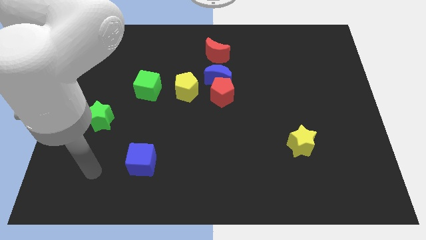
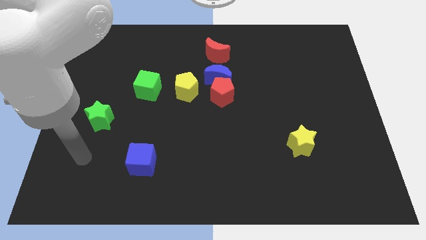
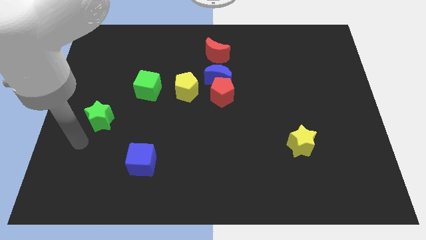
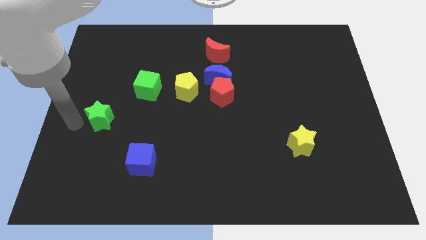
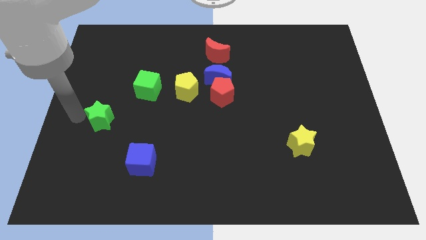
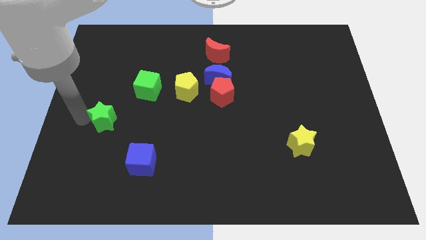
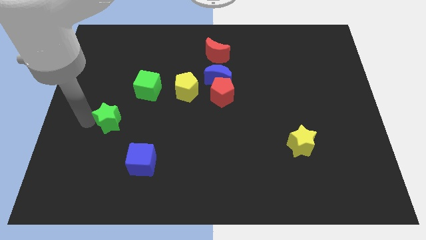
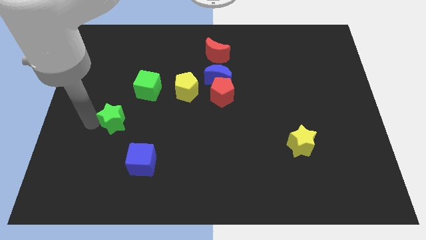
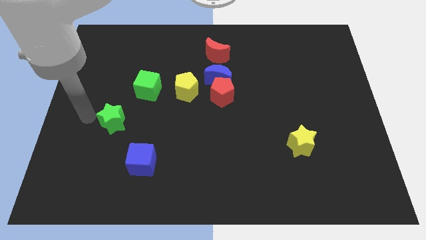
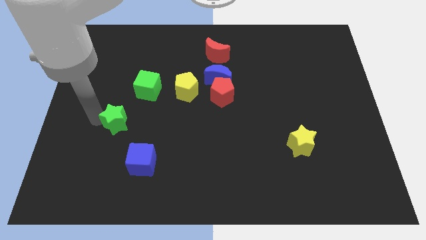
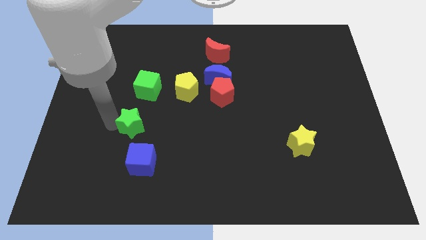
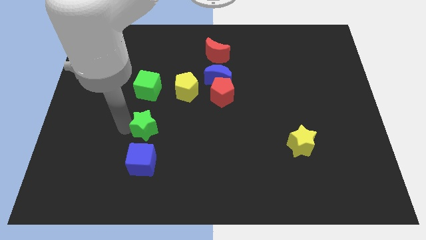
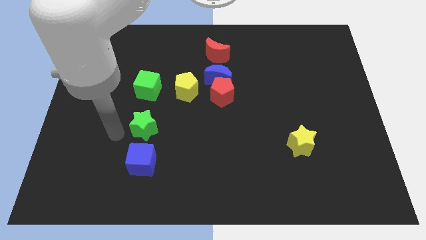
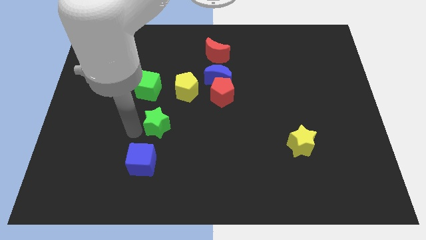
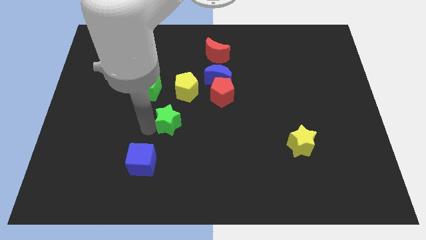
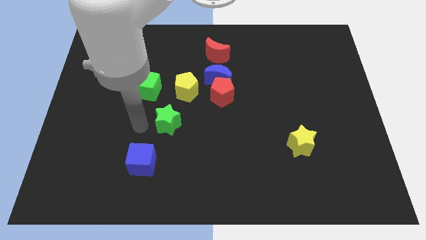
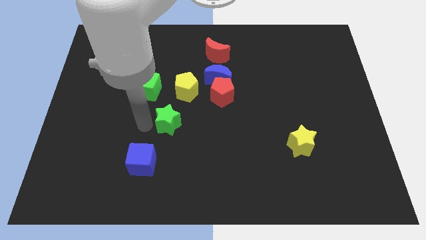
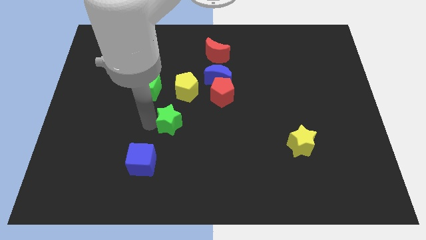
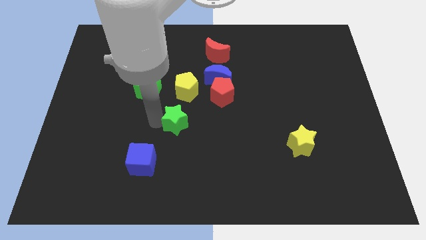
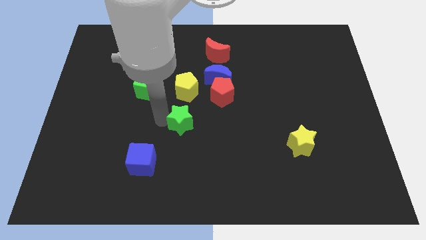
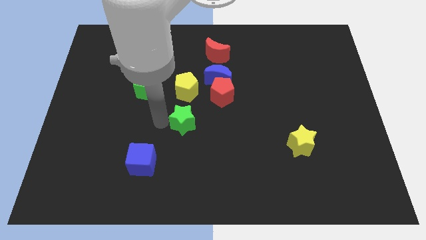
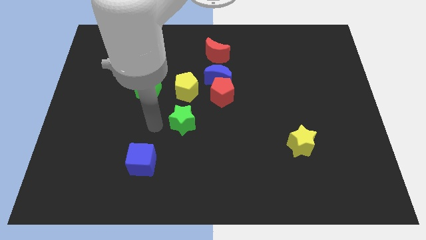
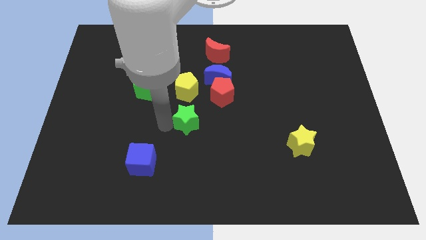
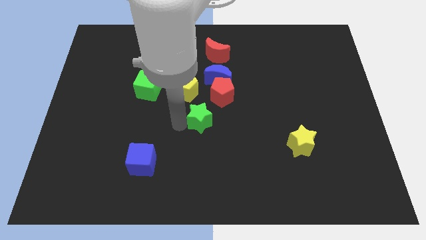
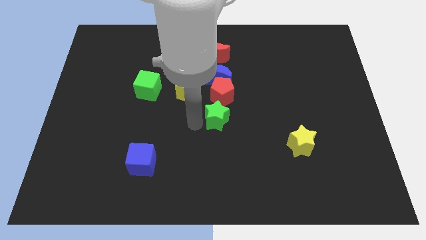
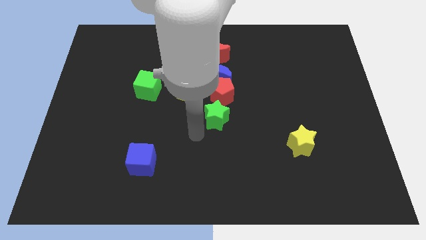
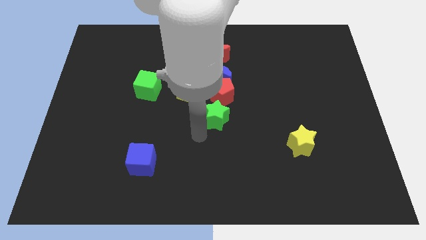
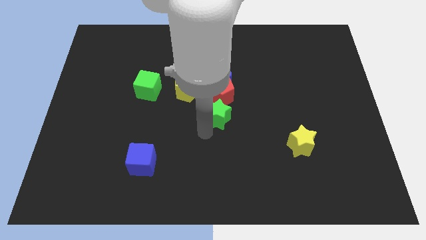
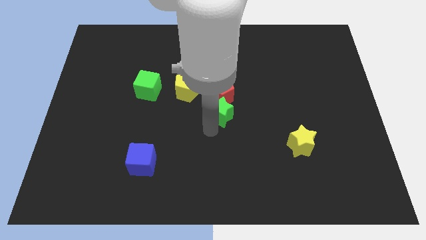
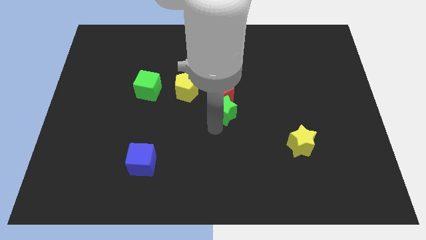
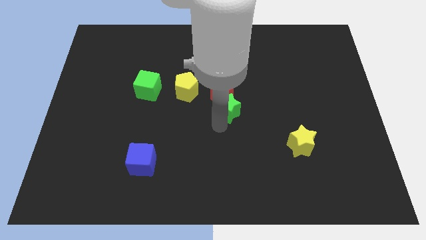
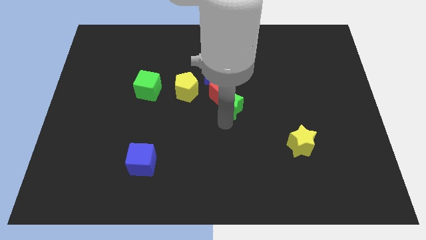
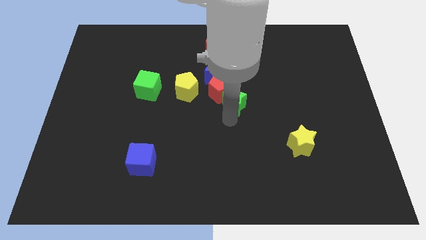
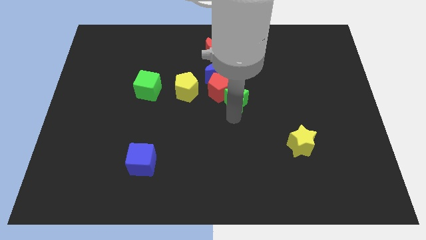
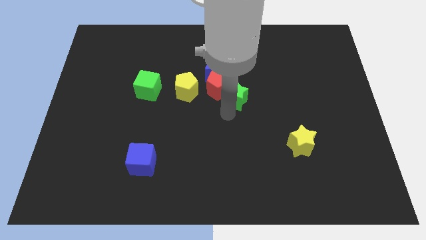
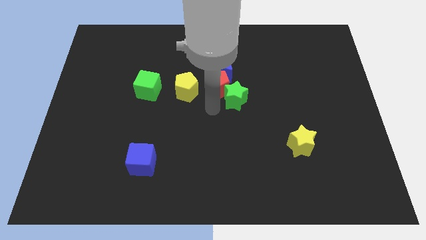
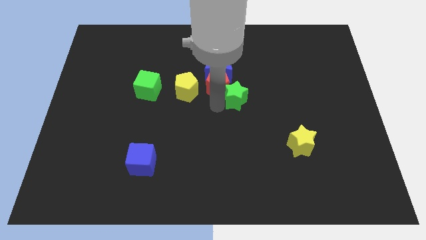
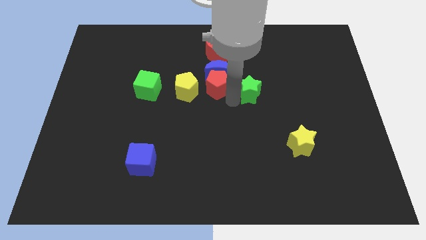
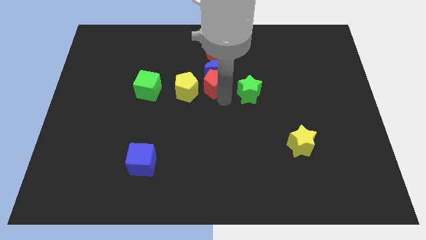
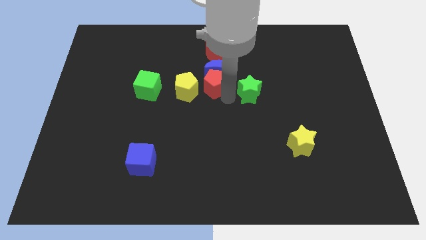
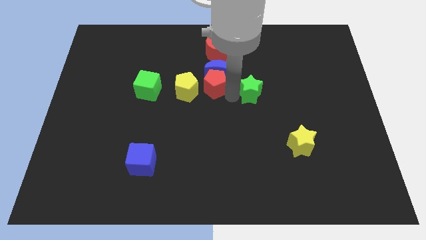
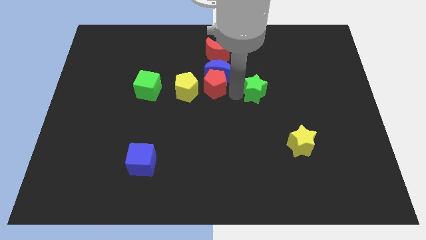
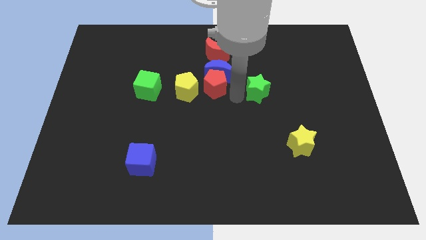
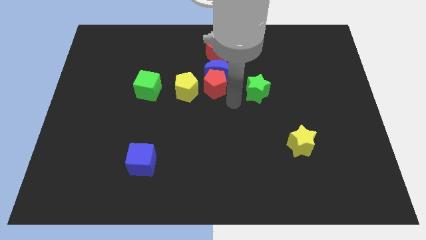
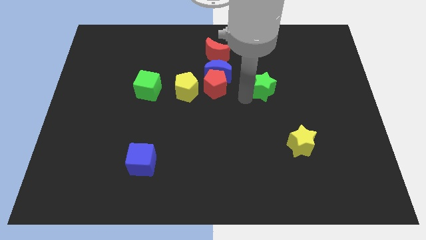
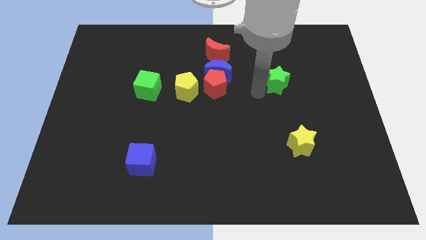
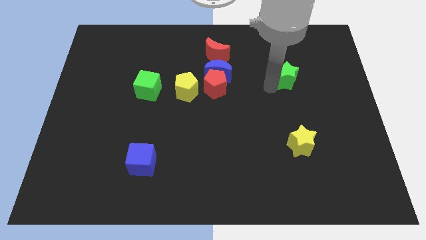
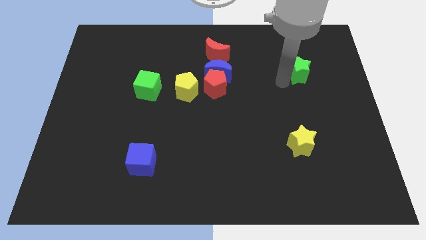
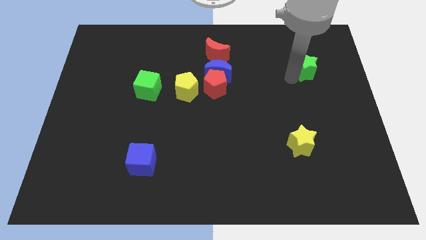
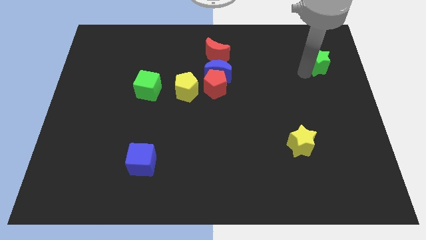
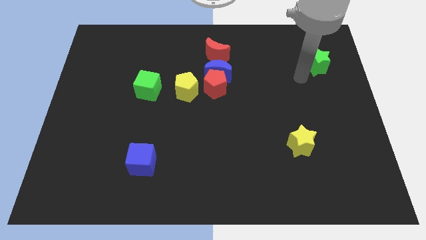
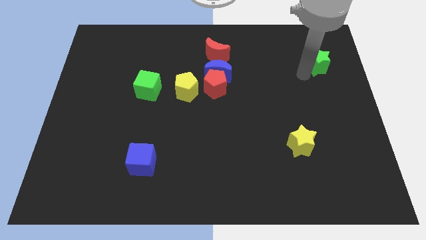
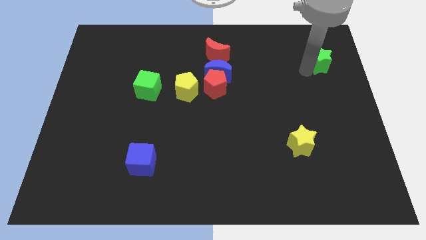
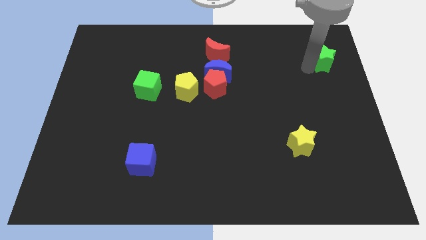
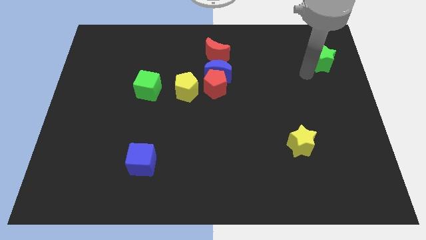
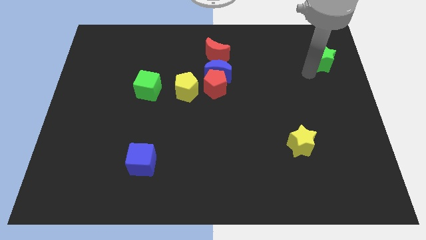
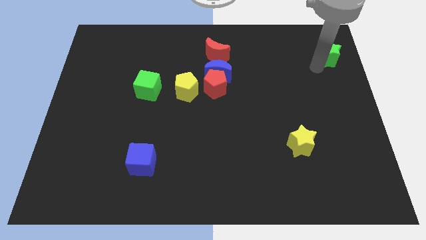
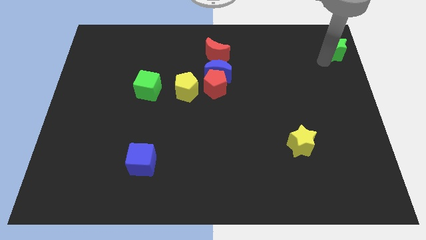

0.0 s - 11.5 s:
slide the green star to the top right

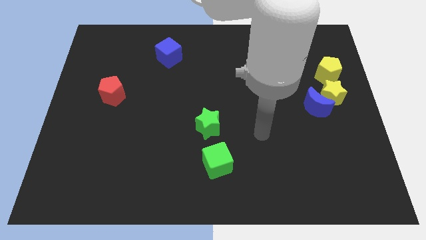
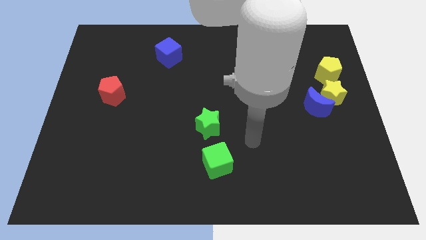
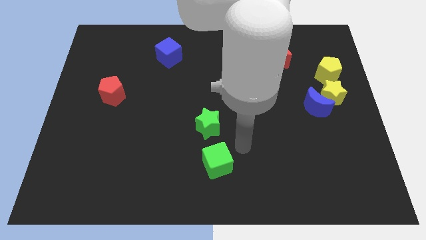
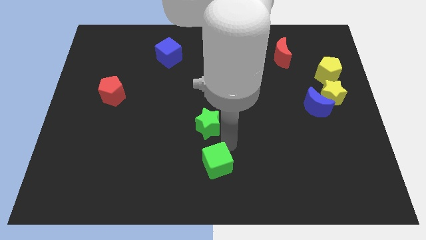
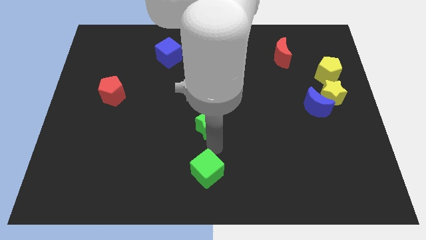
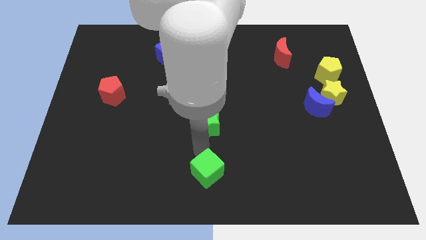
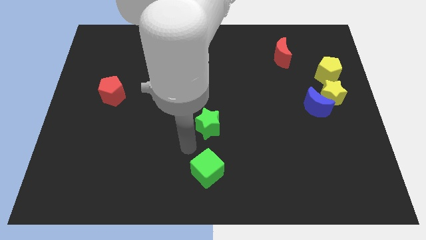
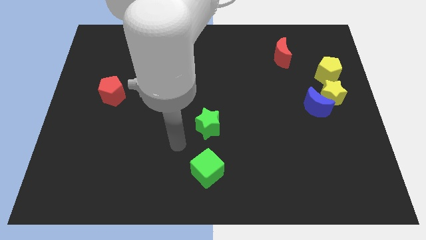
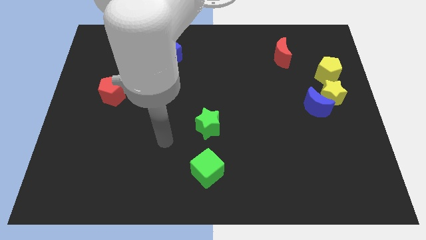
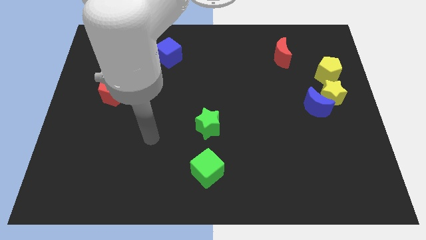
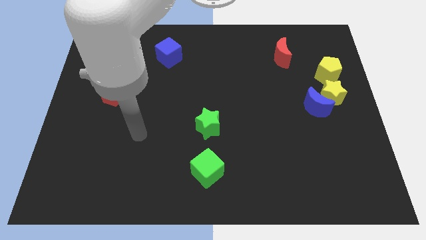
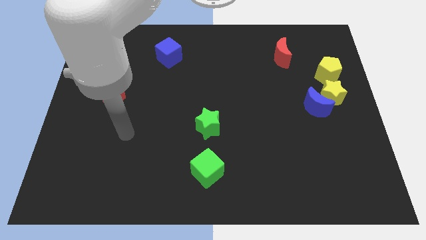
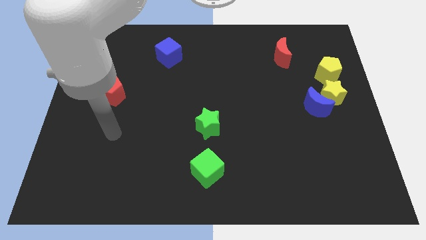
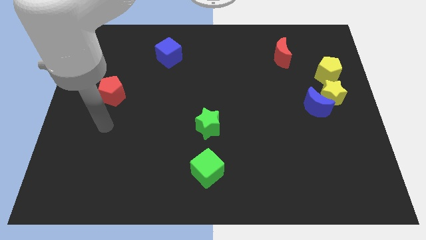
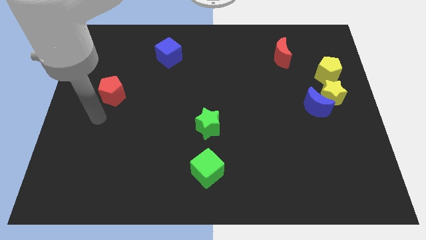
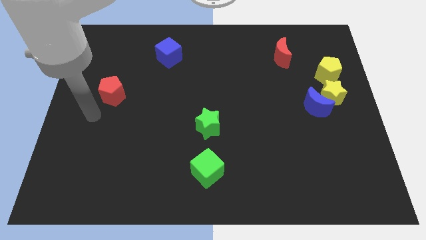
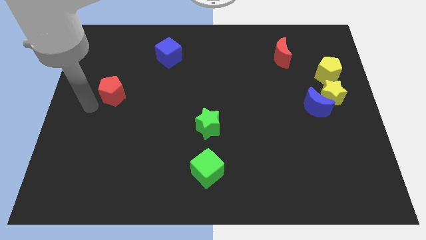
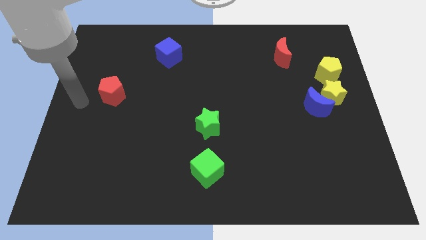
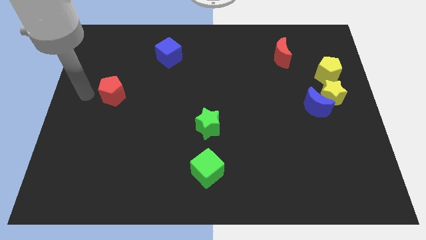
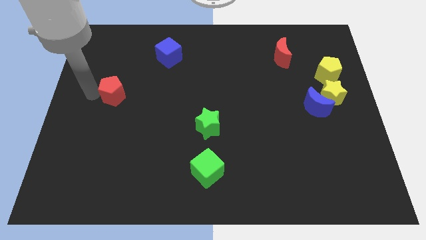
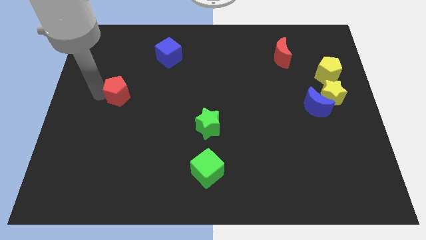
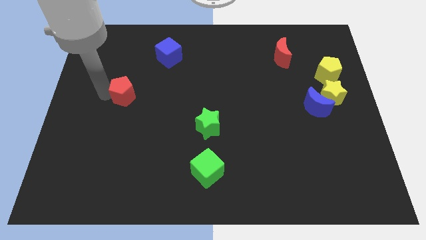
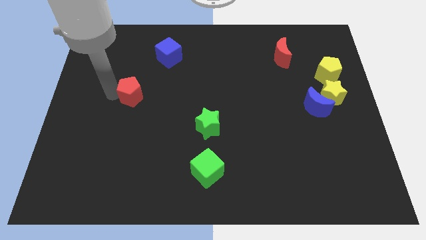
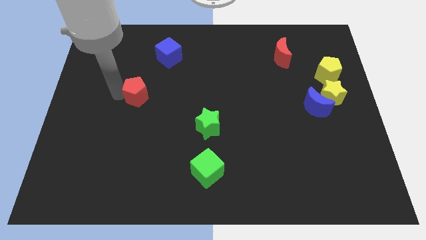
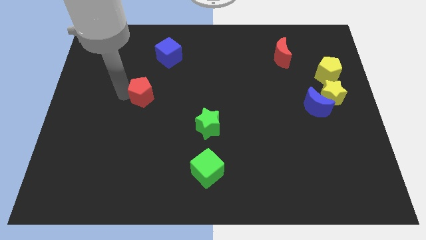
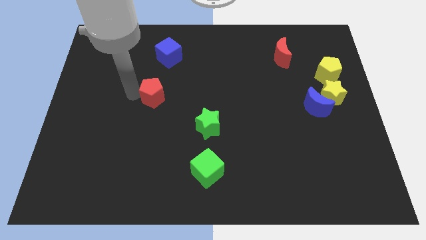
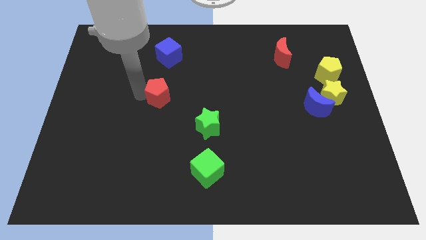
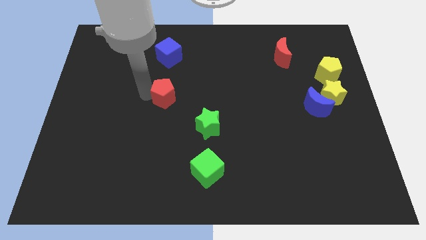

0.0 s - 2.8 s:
slide the red pentagon to the middle
